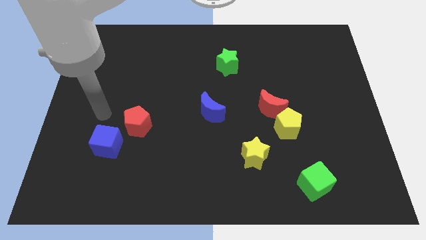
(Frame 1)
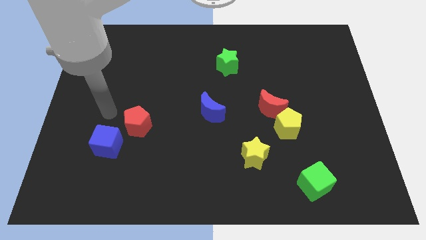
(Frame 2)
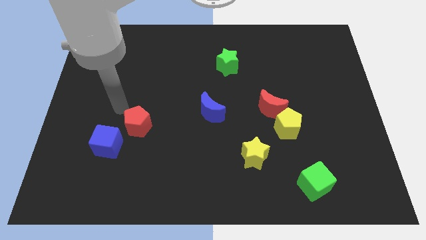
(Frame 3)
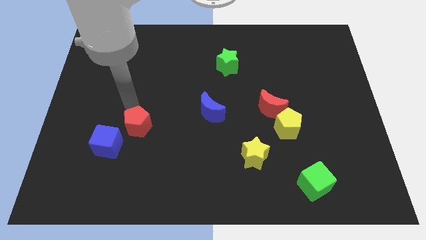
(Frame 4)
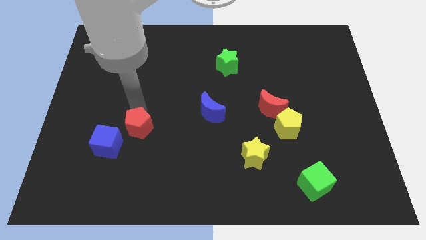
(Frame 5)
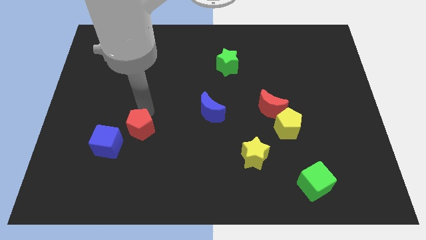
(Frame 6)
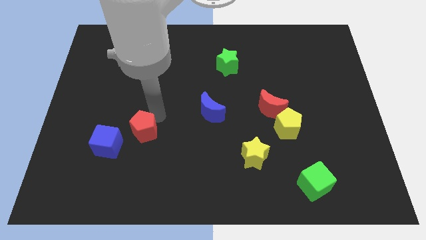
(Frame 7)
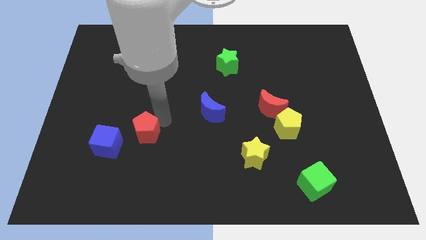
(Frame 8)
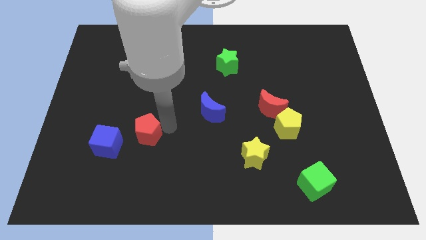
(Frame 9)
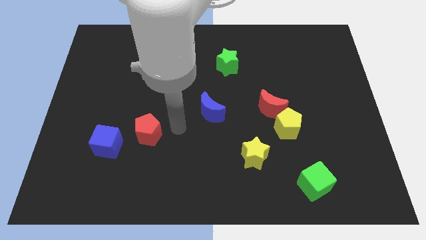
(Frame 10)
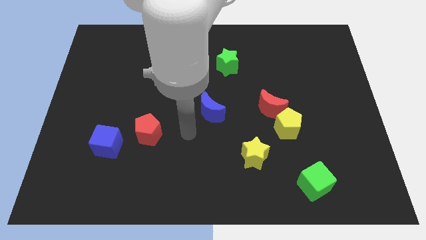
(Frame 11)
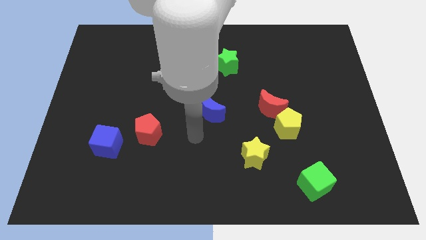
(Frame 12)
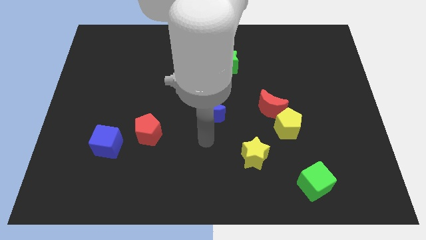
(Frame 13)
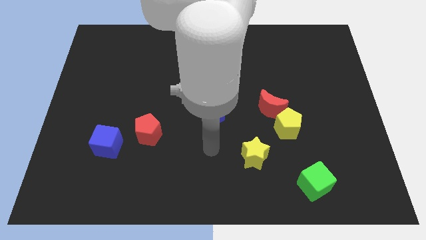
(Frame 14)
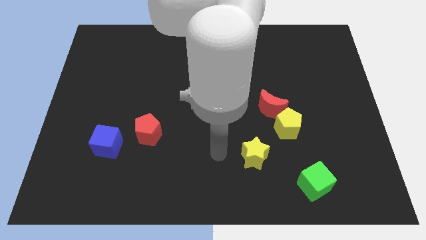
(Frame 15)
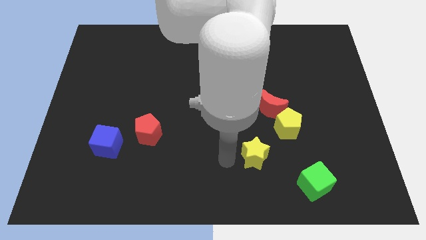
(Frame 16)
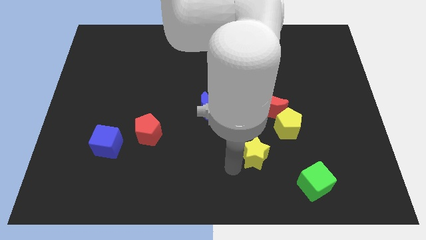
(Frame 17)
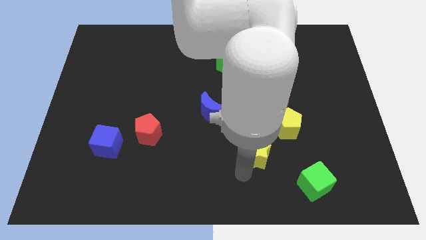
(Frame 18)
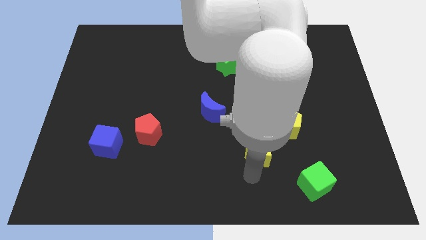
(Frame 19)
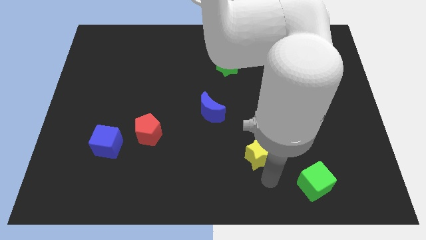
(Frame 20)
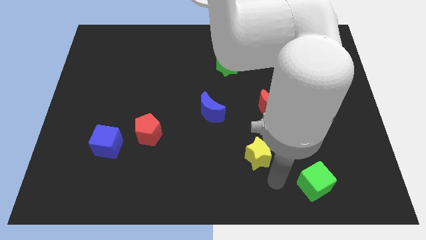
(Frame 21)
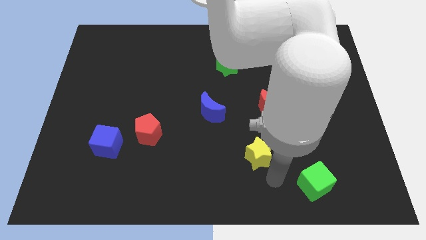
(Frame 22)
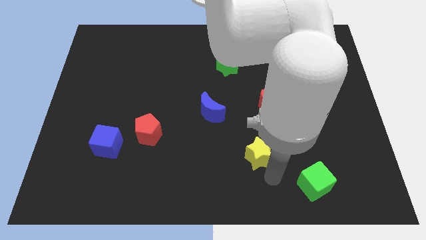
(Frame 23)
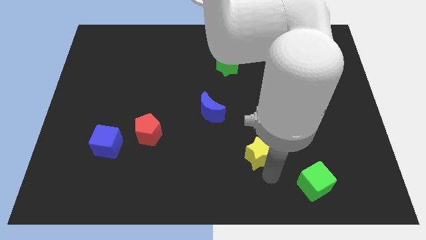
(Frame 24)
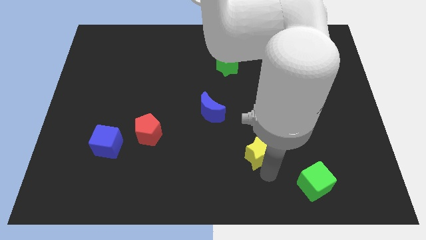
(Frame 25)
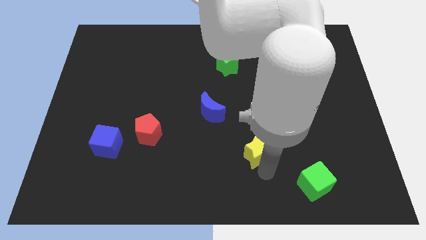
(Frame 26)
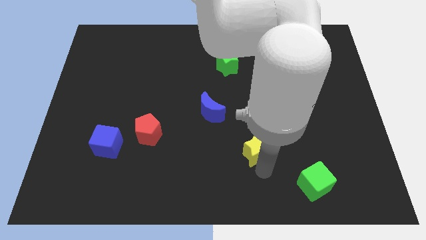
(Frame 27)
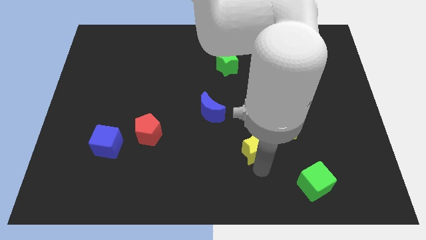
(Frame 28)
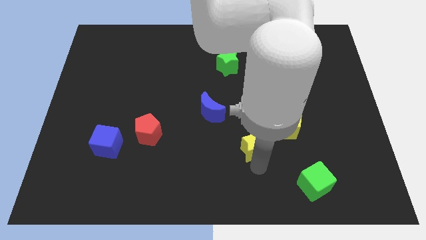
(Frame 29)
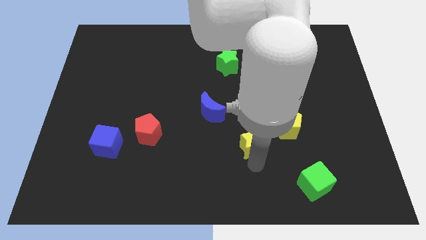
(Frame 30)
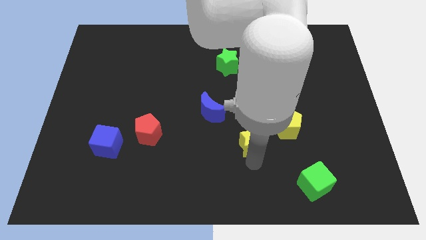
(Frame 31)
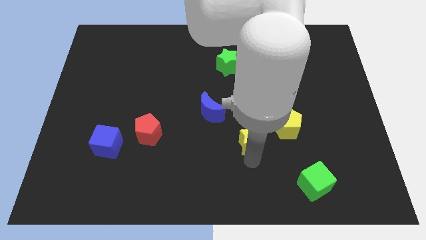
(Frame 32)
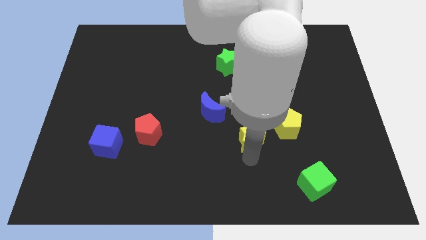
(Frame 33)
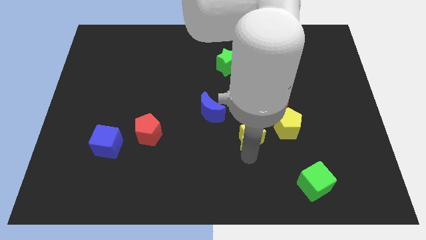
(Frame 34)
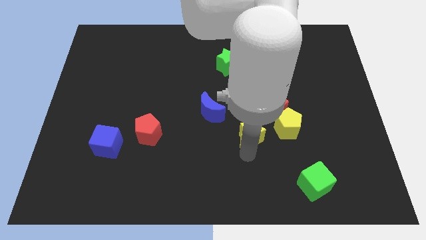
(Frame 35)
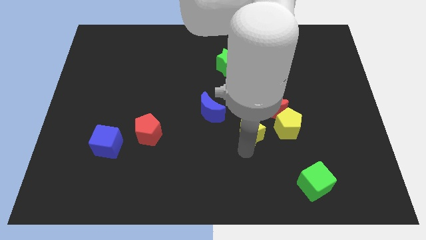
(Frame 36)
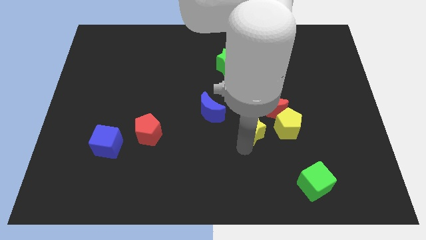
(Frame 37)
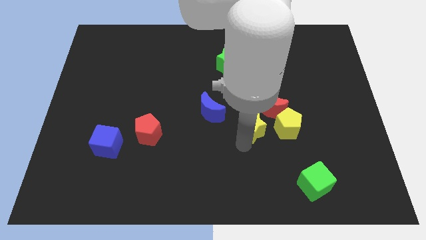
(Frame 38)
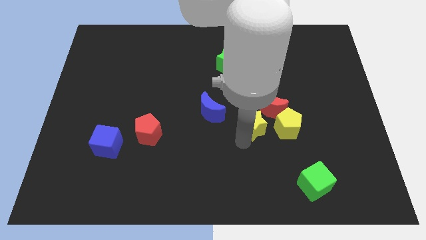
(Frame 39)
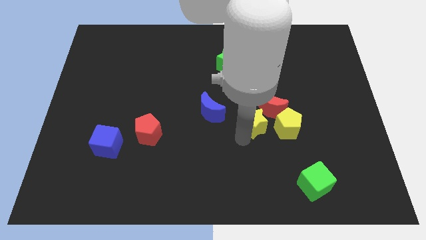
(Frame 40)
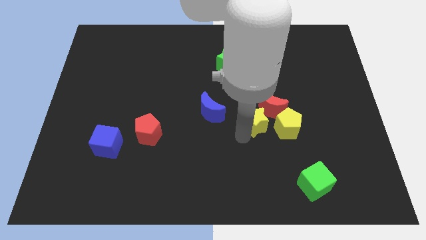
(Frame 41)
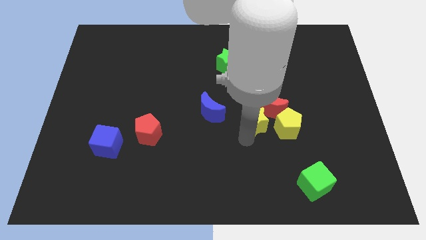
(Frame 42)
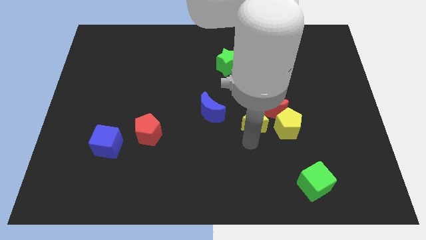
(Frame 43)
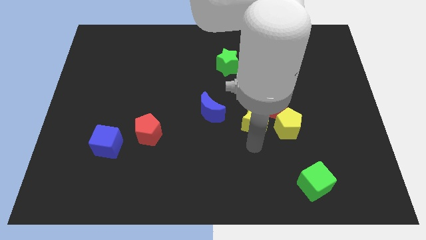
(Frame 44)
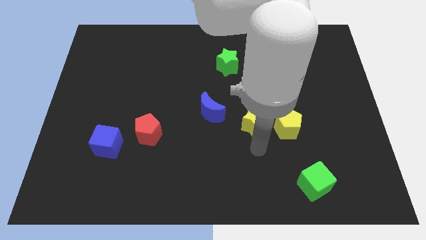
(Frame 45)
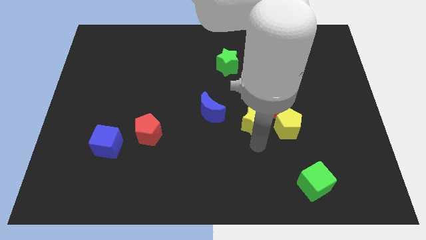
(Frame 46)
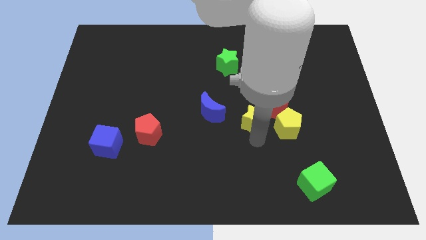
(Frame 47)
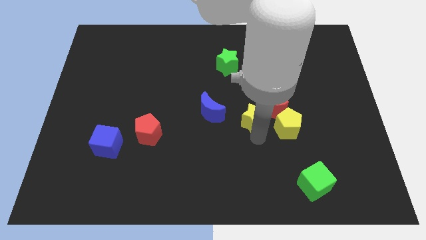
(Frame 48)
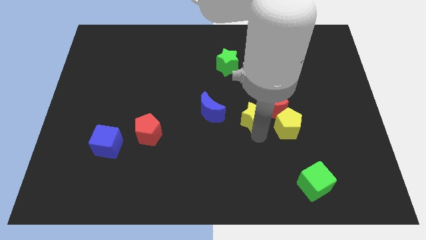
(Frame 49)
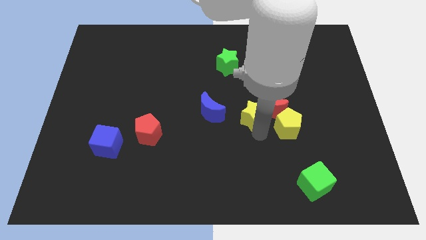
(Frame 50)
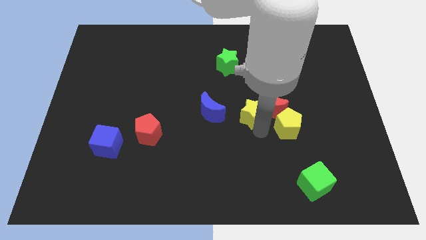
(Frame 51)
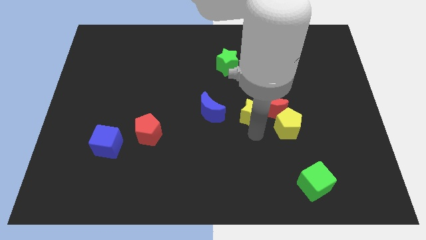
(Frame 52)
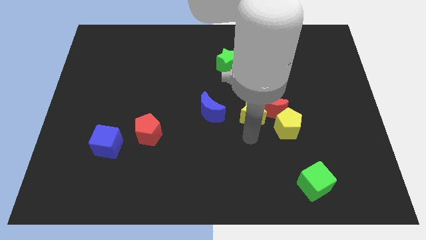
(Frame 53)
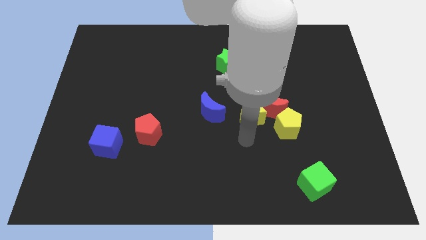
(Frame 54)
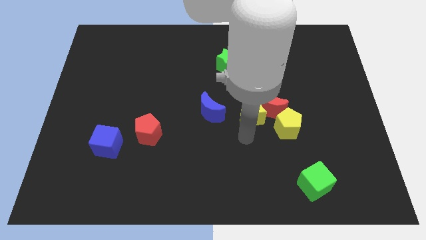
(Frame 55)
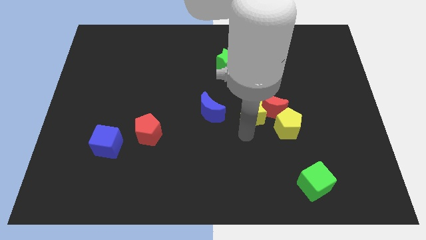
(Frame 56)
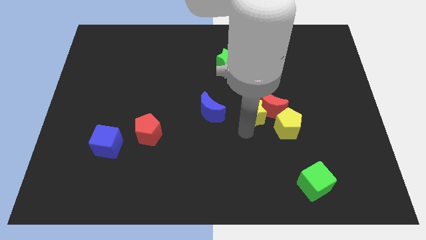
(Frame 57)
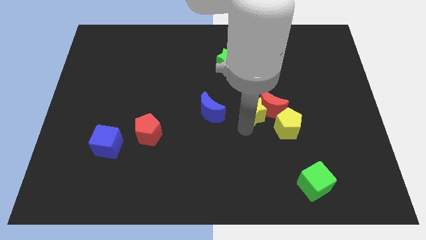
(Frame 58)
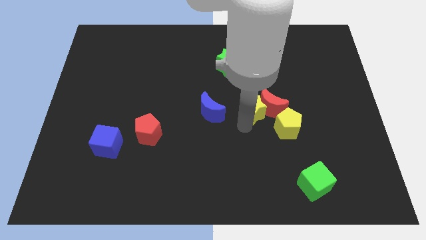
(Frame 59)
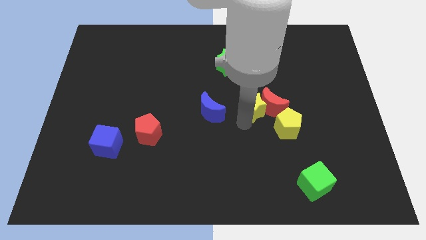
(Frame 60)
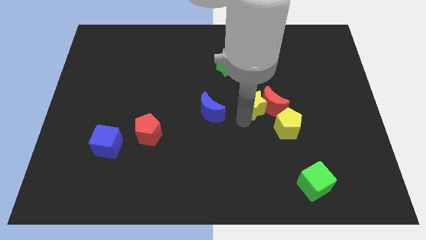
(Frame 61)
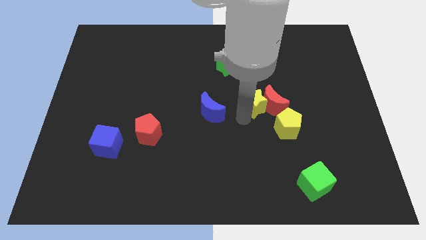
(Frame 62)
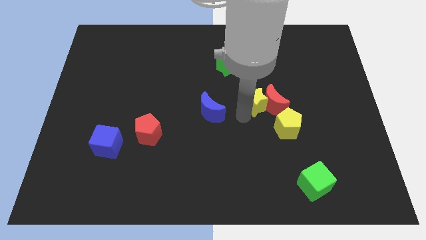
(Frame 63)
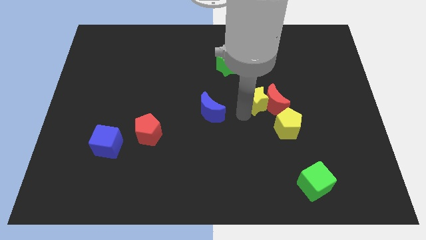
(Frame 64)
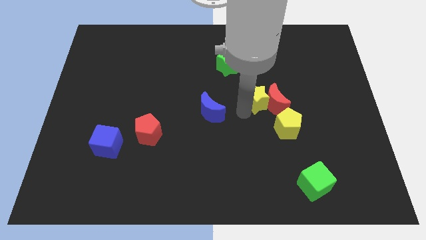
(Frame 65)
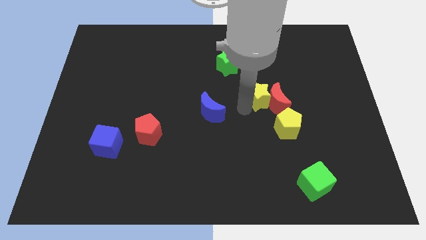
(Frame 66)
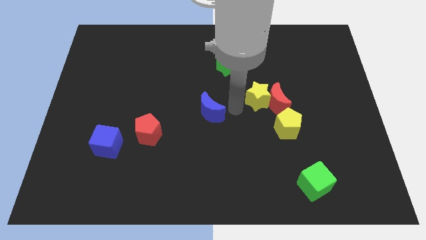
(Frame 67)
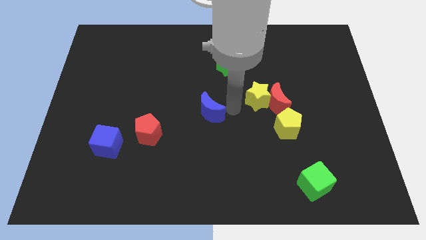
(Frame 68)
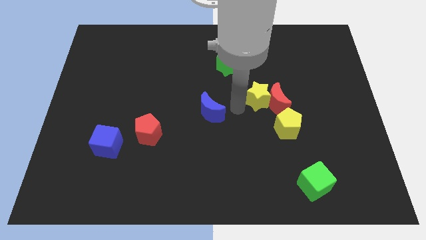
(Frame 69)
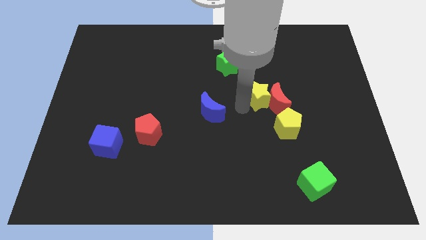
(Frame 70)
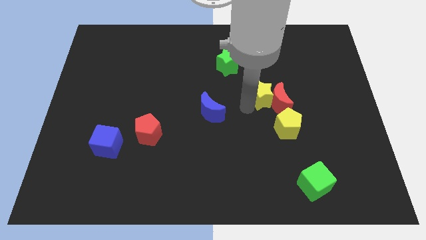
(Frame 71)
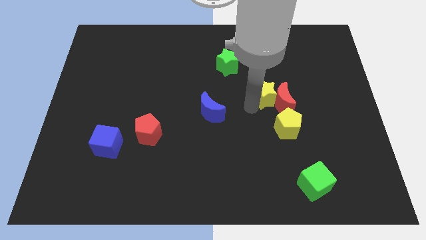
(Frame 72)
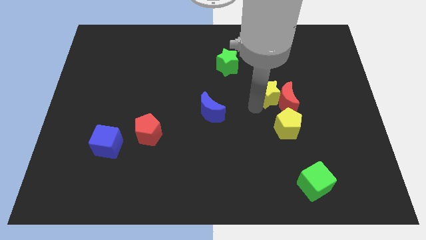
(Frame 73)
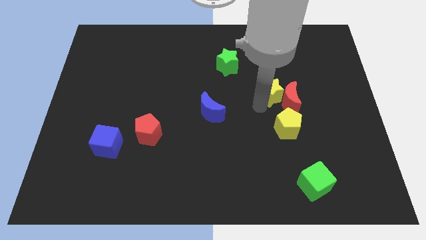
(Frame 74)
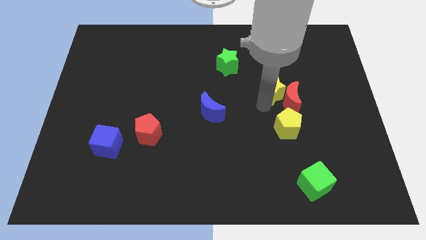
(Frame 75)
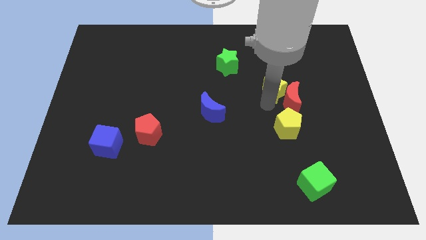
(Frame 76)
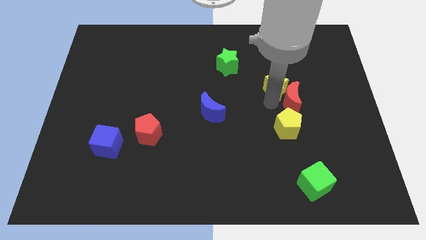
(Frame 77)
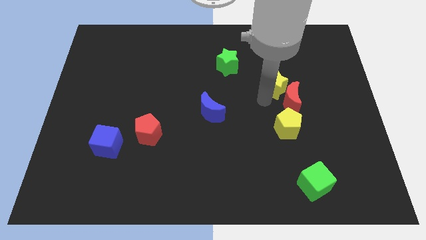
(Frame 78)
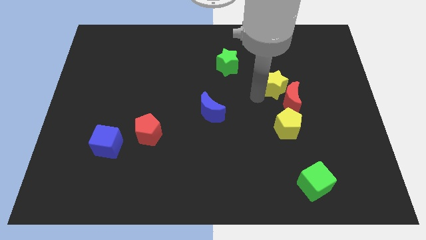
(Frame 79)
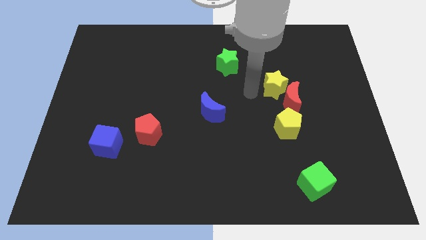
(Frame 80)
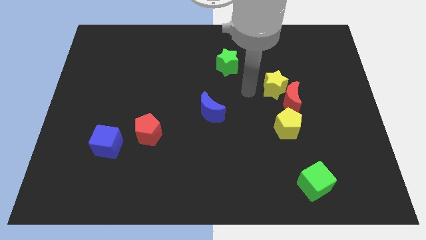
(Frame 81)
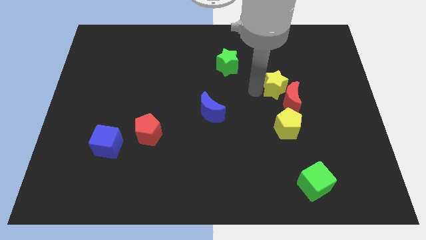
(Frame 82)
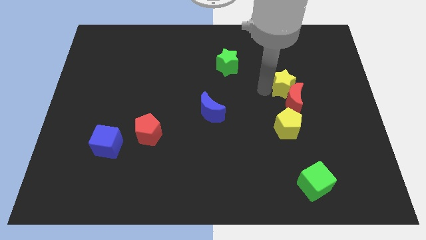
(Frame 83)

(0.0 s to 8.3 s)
put the yellow star diagonally up and to the right of the red moon

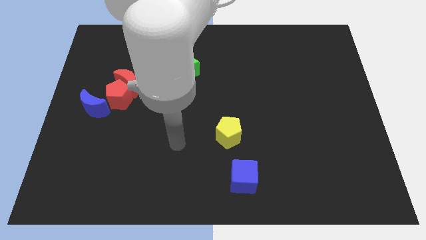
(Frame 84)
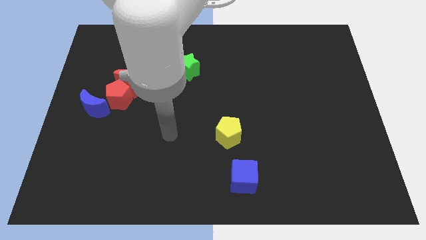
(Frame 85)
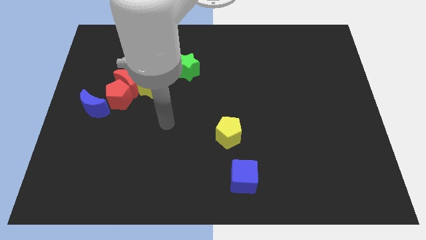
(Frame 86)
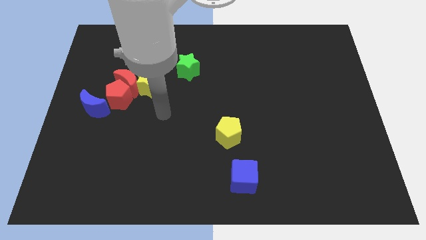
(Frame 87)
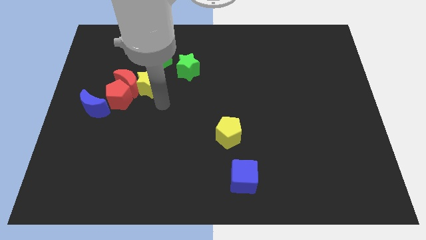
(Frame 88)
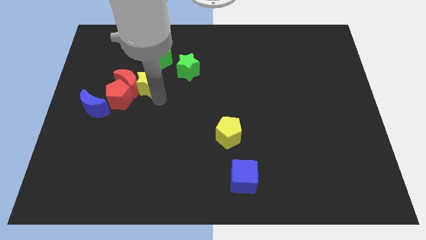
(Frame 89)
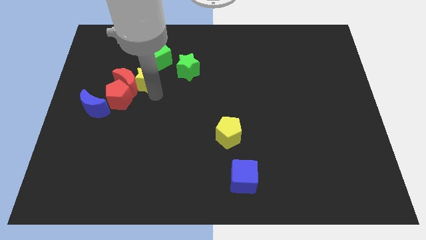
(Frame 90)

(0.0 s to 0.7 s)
push the yellow star to the bottom left side of the green cube
